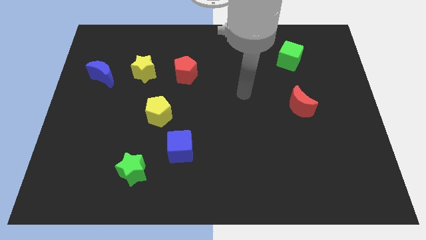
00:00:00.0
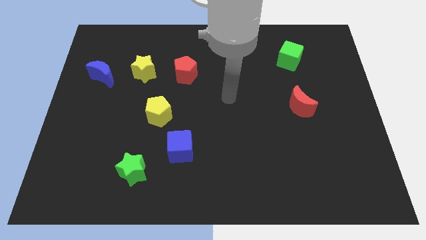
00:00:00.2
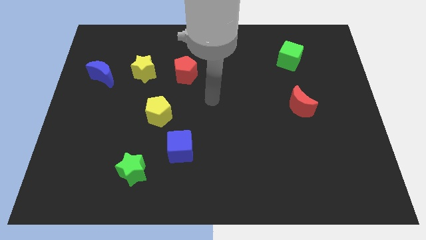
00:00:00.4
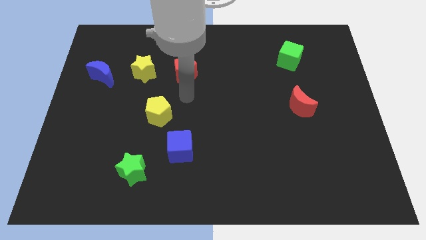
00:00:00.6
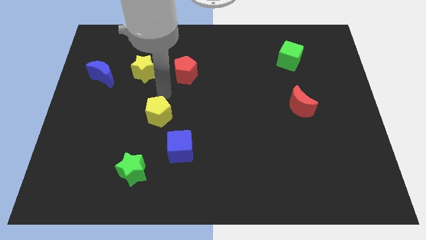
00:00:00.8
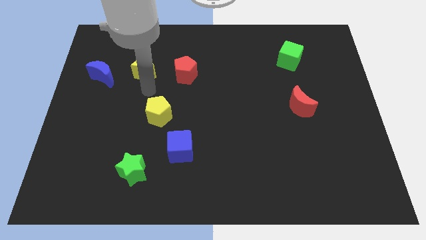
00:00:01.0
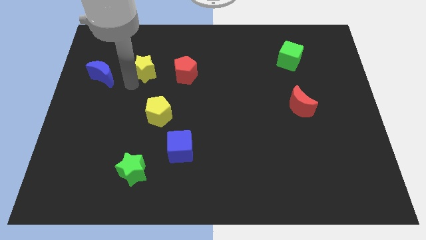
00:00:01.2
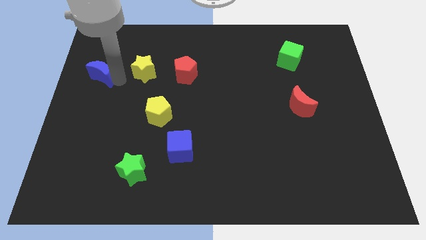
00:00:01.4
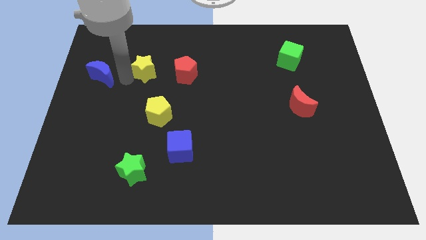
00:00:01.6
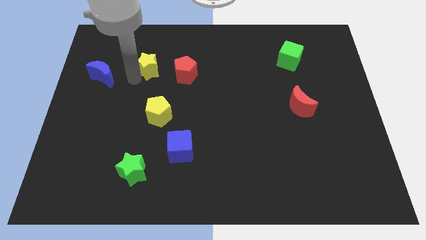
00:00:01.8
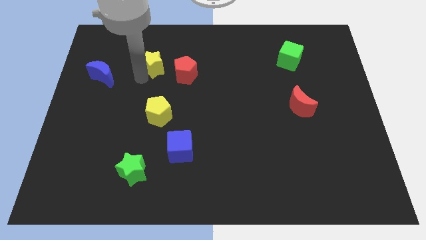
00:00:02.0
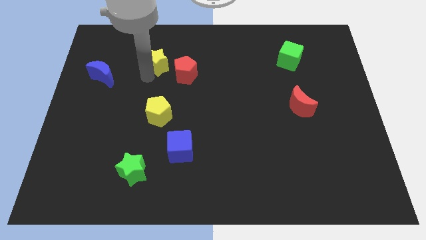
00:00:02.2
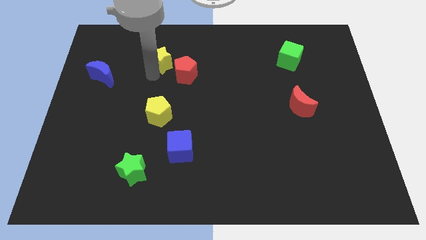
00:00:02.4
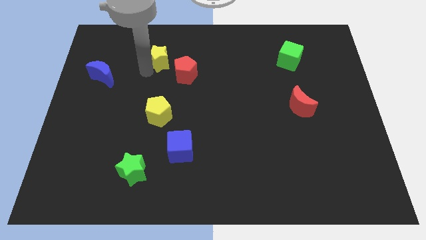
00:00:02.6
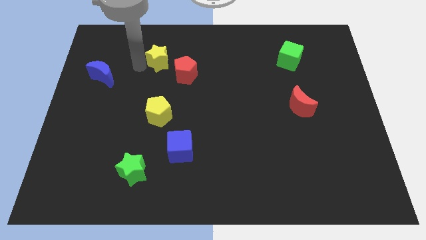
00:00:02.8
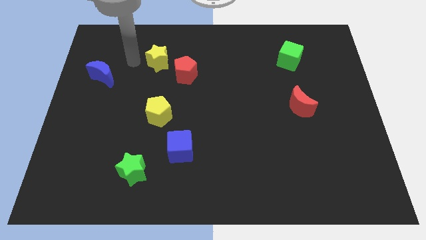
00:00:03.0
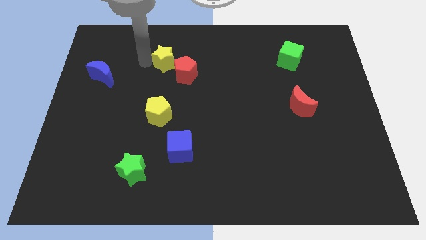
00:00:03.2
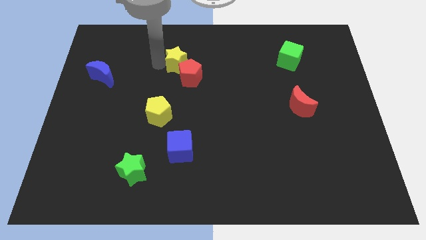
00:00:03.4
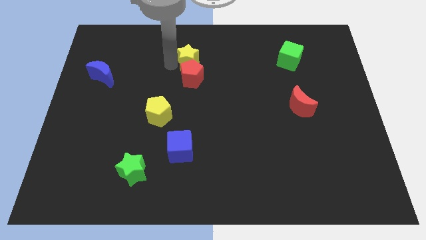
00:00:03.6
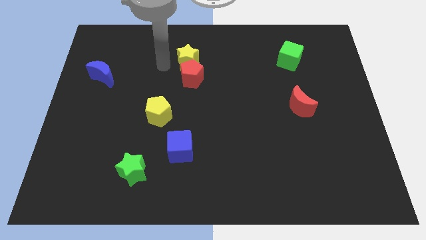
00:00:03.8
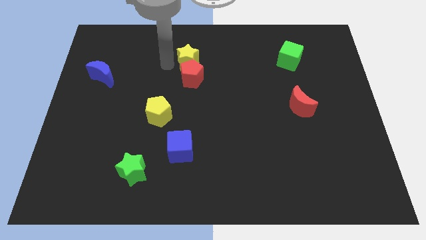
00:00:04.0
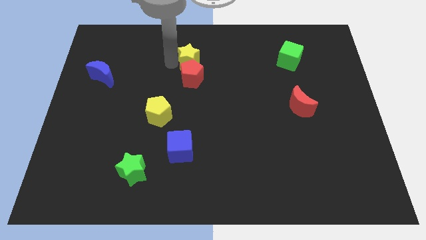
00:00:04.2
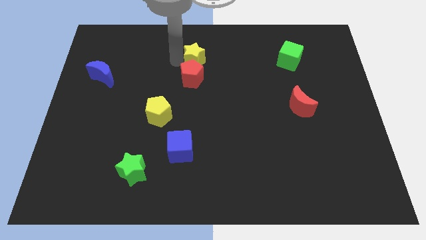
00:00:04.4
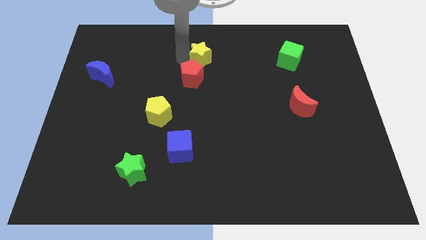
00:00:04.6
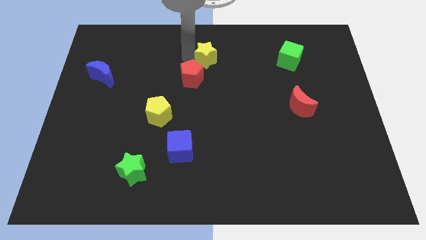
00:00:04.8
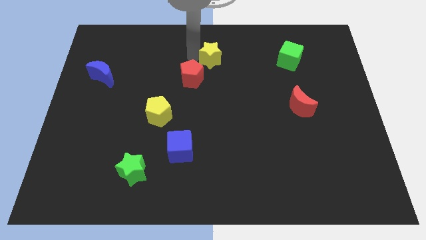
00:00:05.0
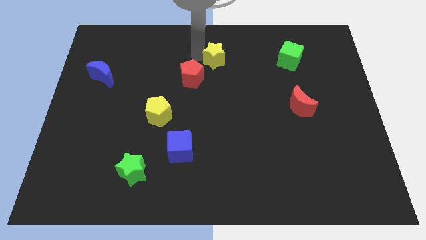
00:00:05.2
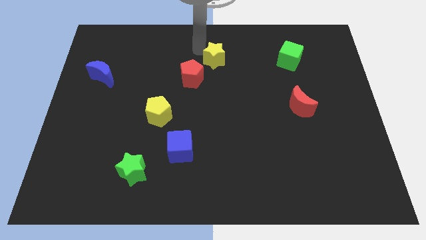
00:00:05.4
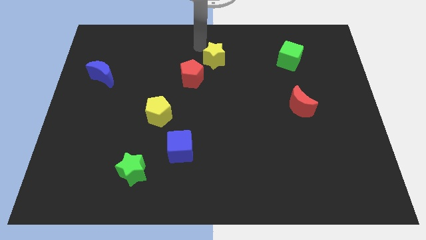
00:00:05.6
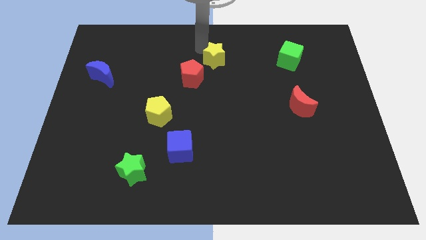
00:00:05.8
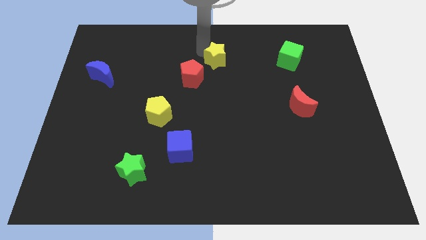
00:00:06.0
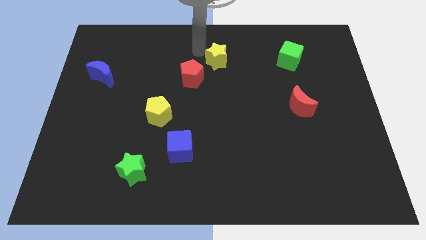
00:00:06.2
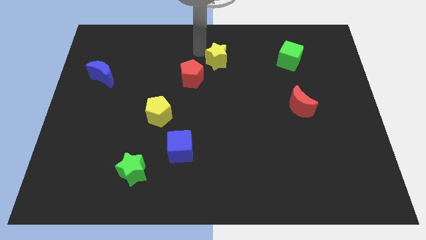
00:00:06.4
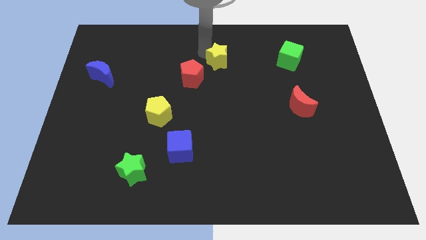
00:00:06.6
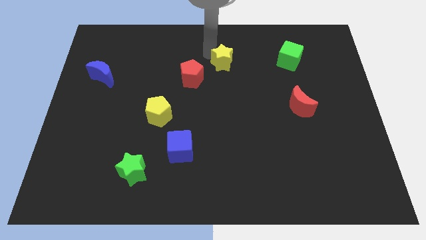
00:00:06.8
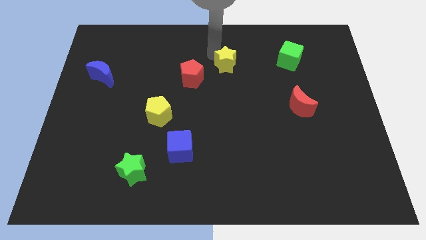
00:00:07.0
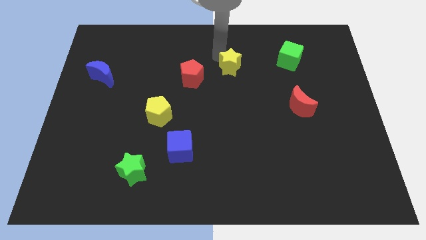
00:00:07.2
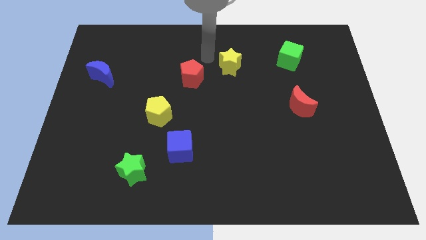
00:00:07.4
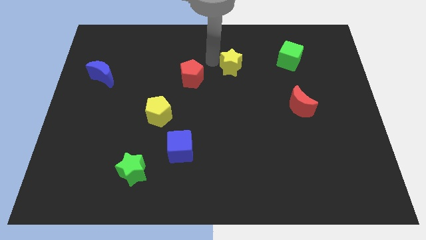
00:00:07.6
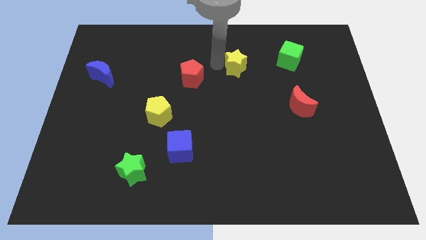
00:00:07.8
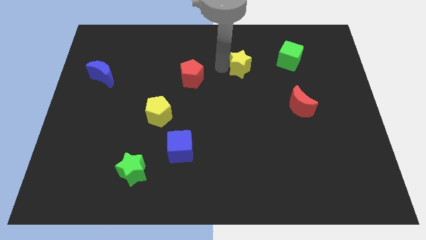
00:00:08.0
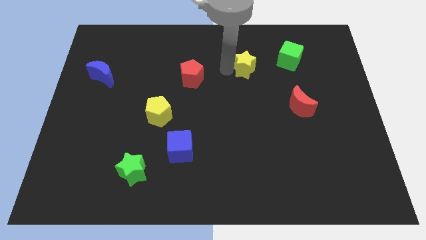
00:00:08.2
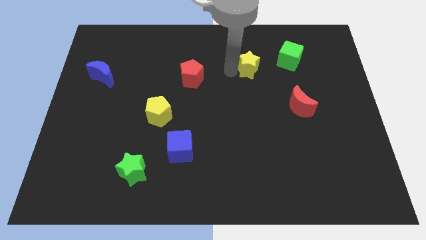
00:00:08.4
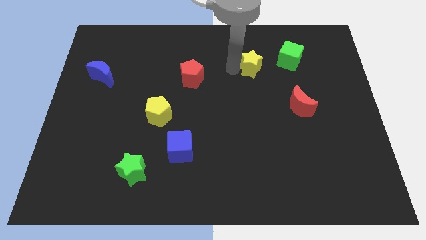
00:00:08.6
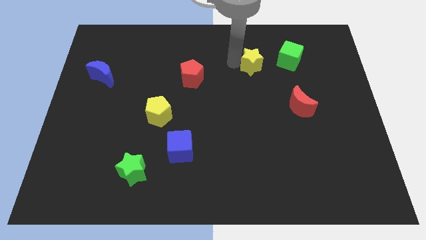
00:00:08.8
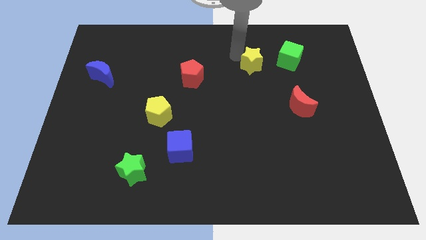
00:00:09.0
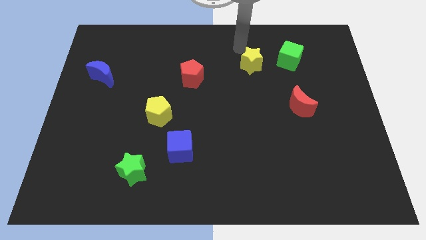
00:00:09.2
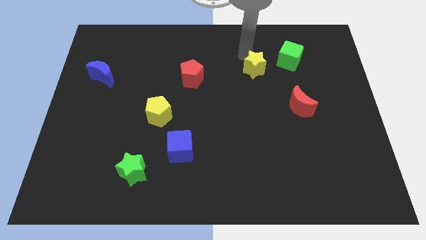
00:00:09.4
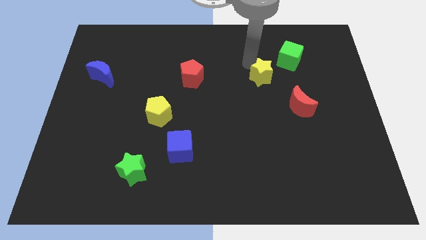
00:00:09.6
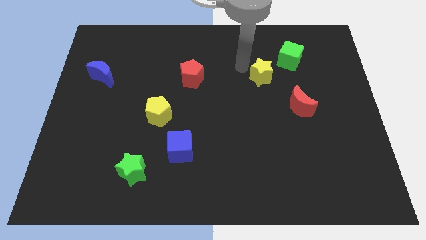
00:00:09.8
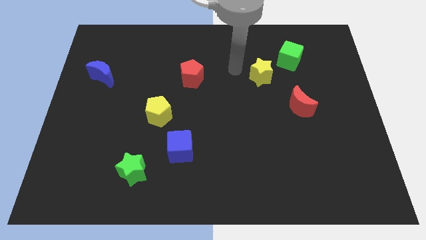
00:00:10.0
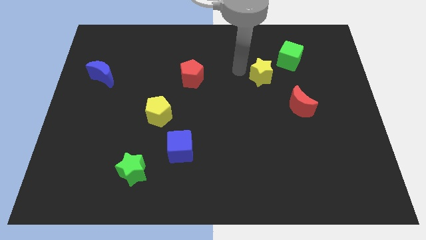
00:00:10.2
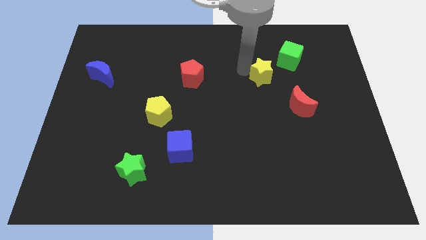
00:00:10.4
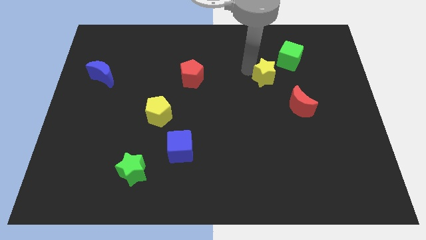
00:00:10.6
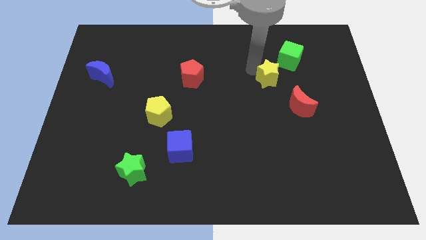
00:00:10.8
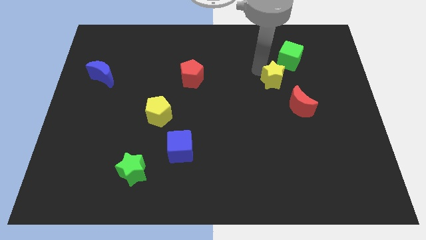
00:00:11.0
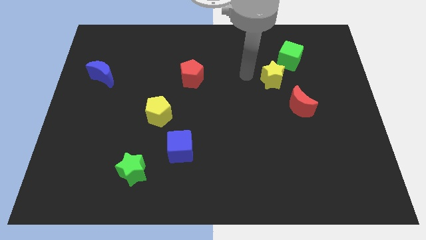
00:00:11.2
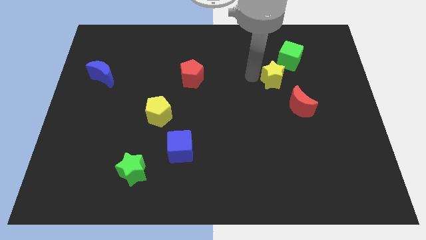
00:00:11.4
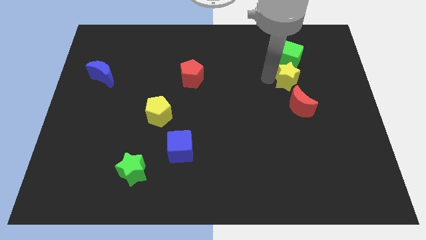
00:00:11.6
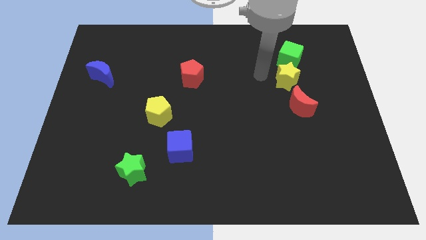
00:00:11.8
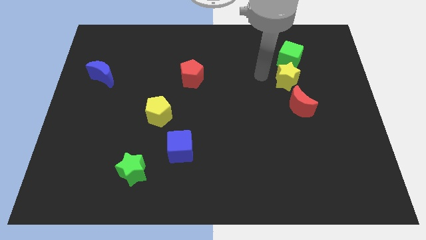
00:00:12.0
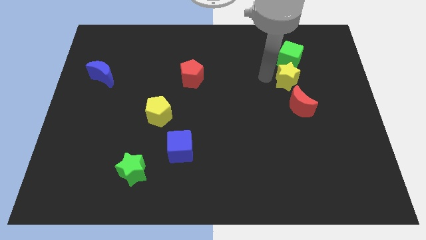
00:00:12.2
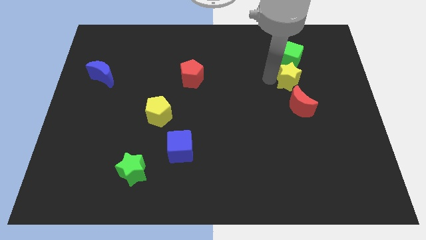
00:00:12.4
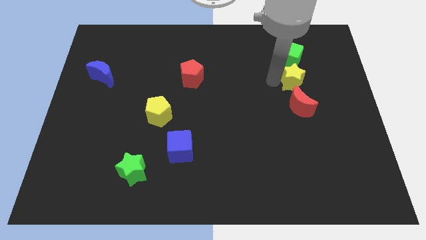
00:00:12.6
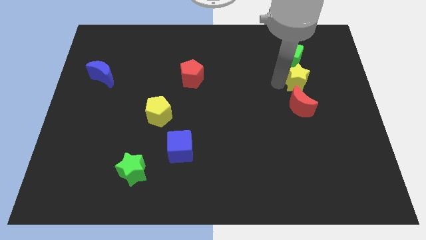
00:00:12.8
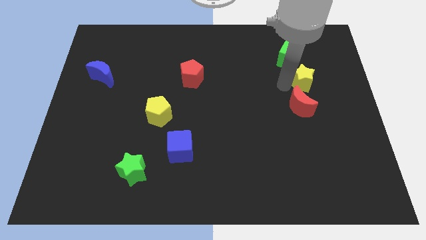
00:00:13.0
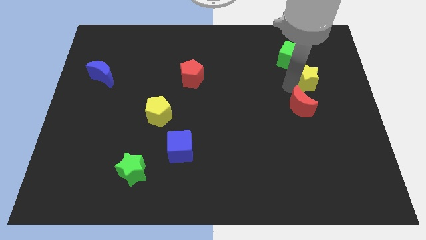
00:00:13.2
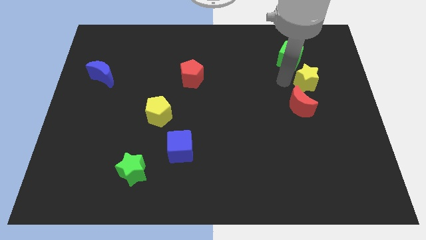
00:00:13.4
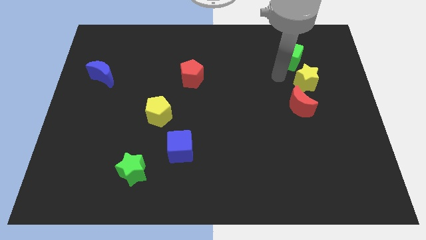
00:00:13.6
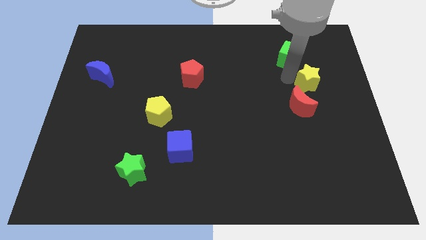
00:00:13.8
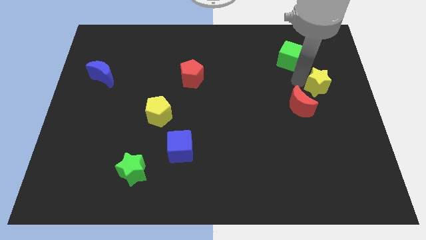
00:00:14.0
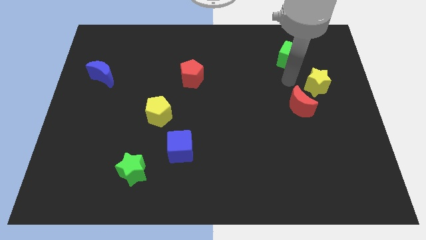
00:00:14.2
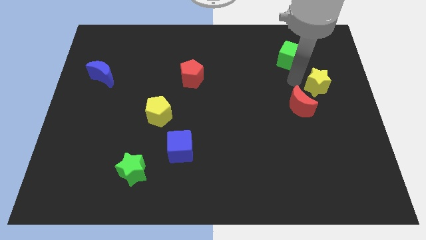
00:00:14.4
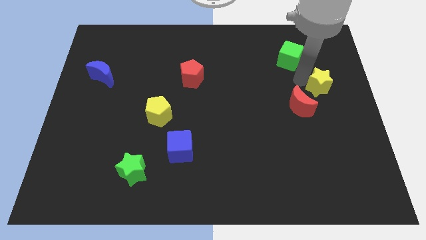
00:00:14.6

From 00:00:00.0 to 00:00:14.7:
move the yellow star to the center right
